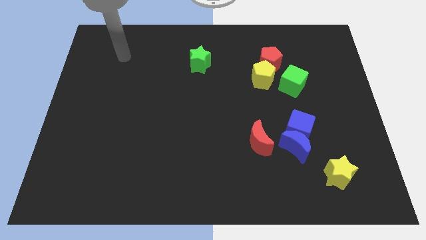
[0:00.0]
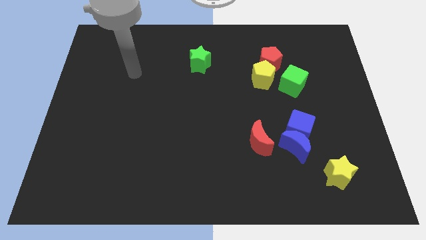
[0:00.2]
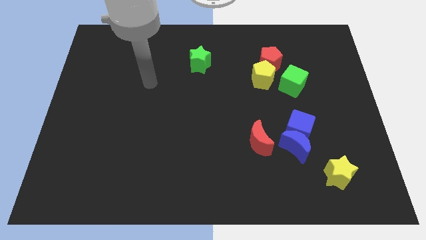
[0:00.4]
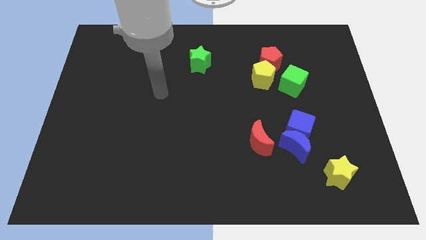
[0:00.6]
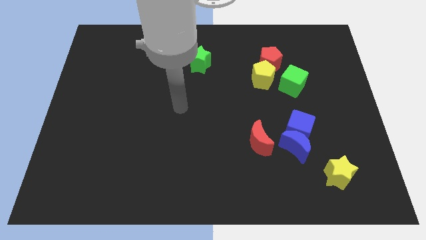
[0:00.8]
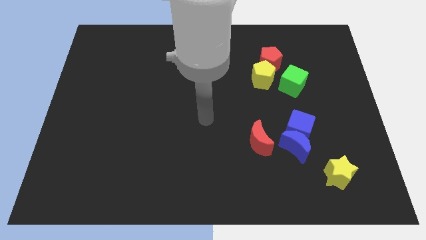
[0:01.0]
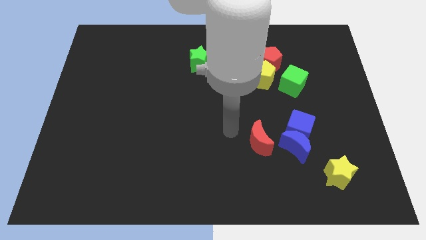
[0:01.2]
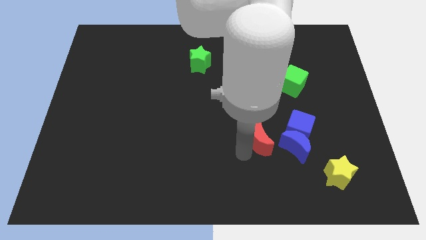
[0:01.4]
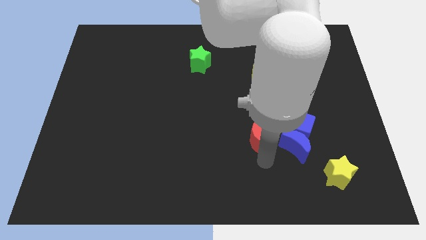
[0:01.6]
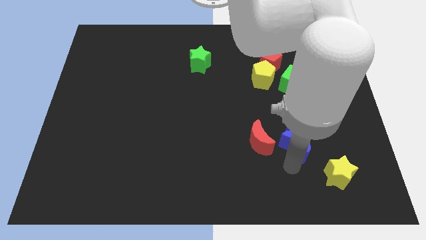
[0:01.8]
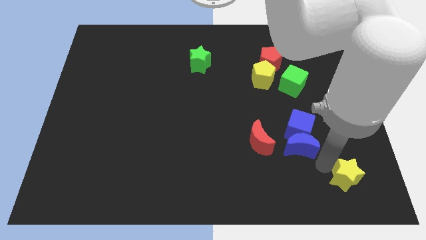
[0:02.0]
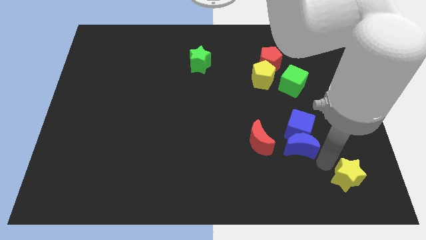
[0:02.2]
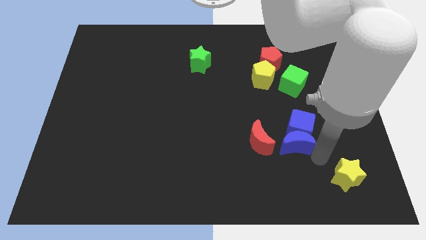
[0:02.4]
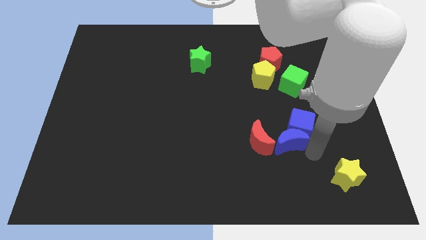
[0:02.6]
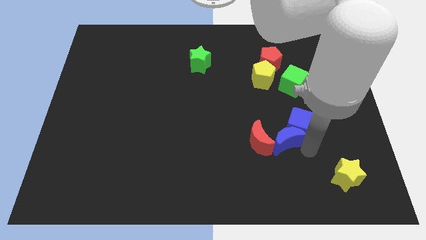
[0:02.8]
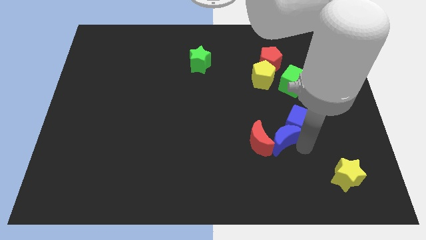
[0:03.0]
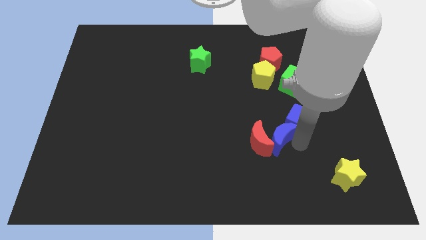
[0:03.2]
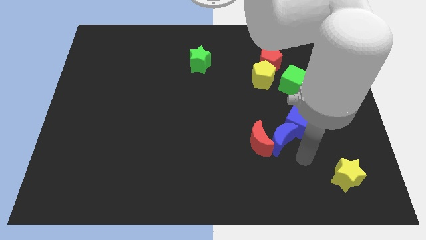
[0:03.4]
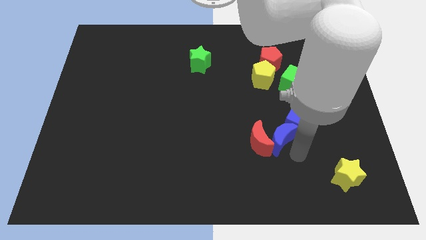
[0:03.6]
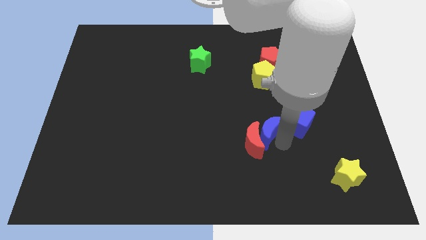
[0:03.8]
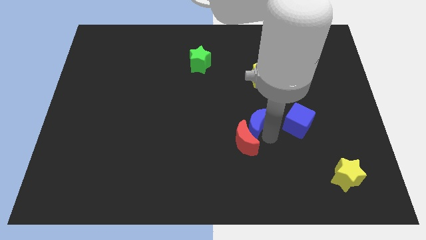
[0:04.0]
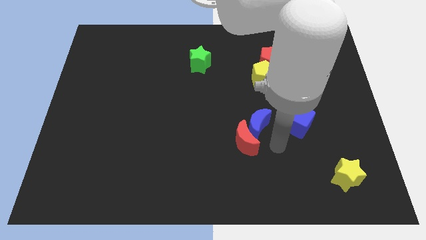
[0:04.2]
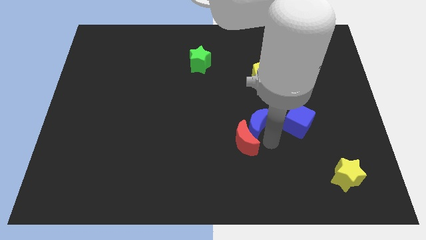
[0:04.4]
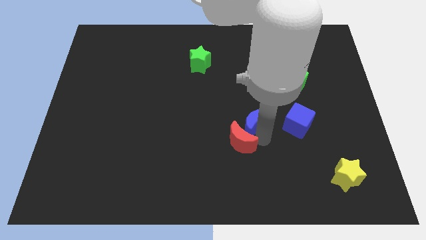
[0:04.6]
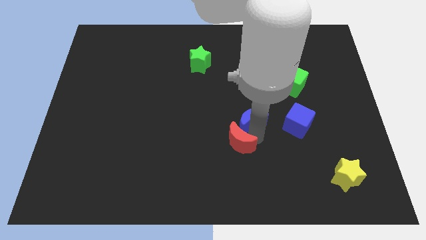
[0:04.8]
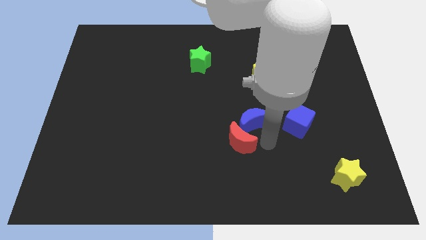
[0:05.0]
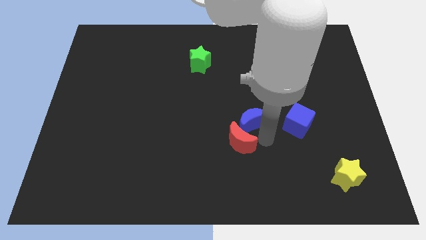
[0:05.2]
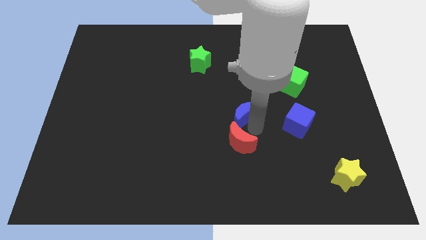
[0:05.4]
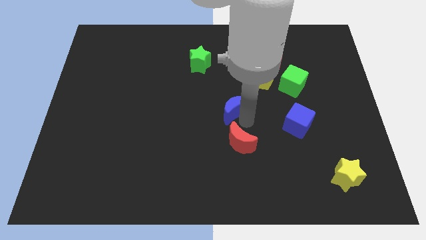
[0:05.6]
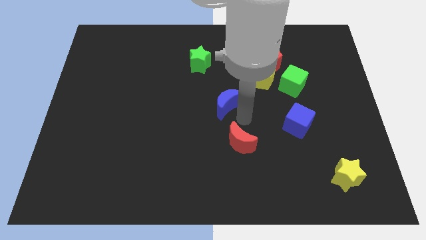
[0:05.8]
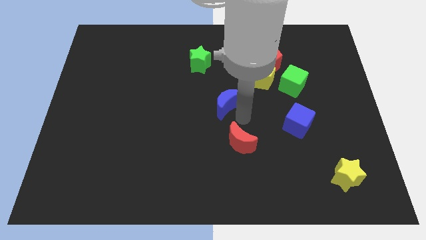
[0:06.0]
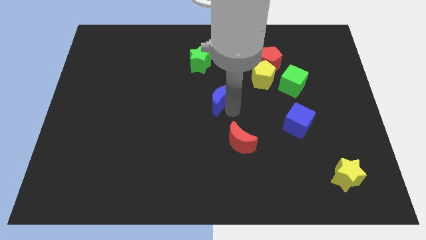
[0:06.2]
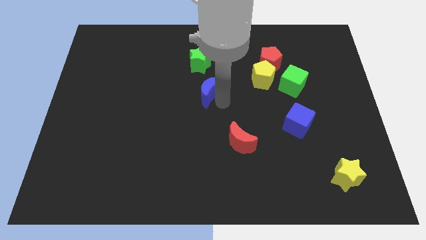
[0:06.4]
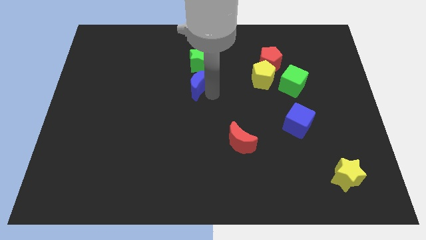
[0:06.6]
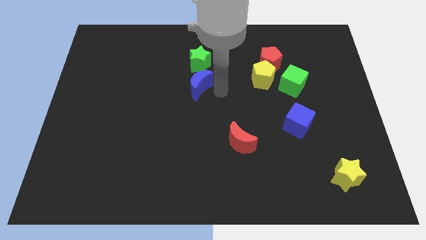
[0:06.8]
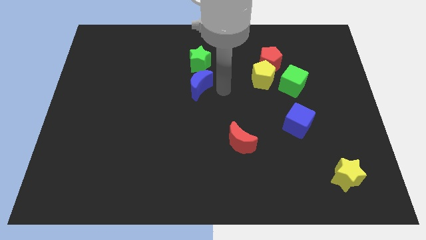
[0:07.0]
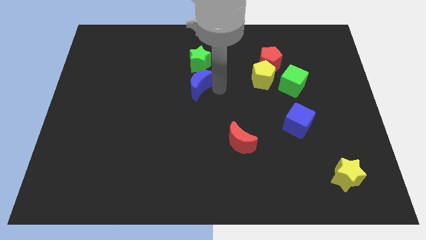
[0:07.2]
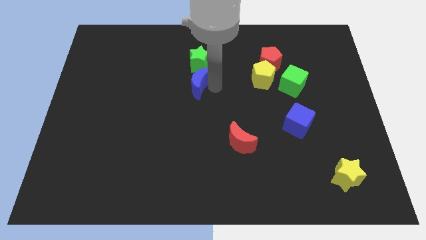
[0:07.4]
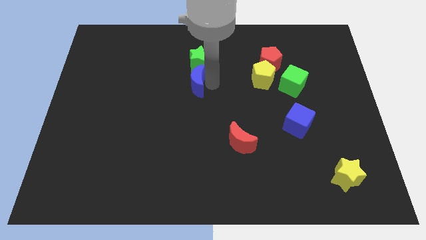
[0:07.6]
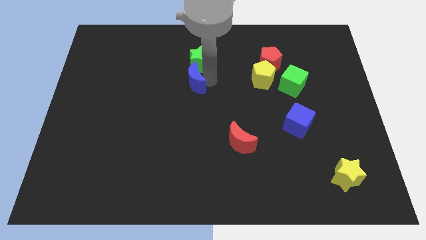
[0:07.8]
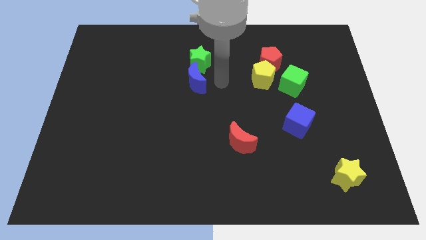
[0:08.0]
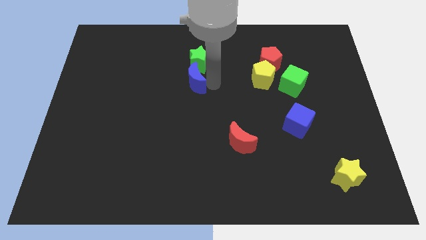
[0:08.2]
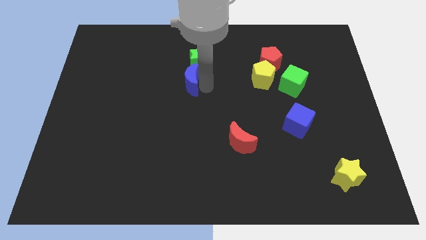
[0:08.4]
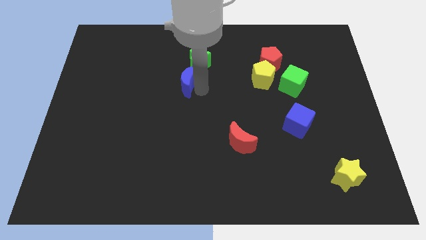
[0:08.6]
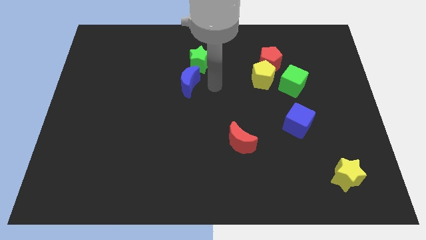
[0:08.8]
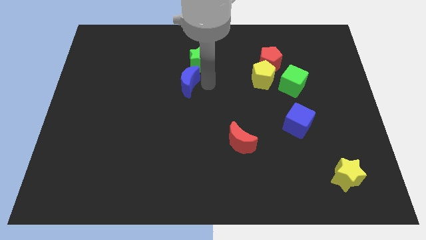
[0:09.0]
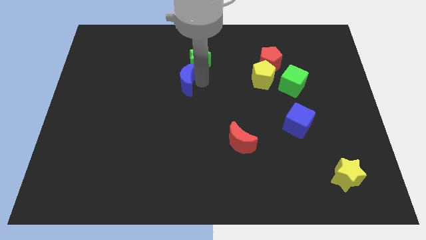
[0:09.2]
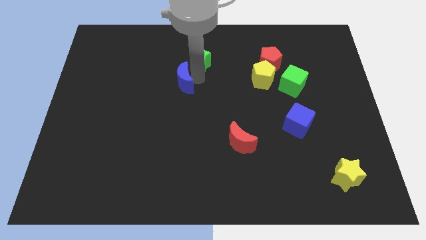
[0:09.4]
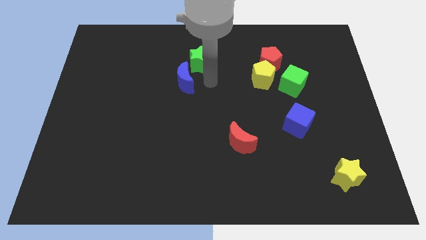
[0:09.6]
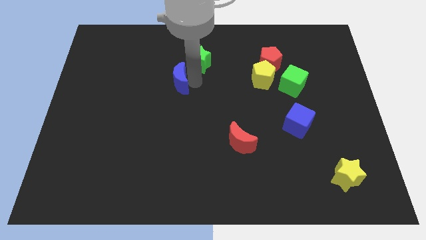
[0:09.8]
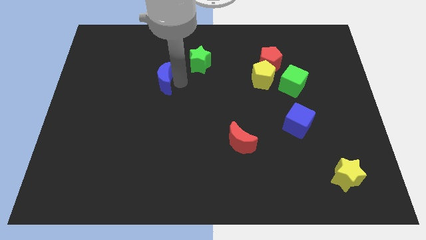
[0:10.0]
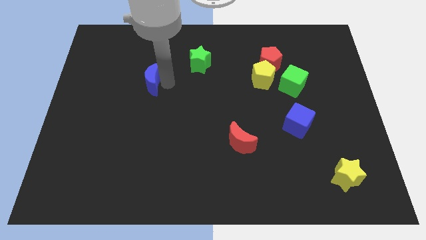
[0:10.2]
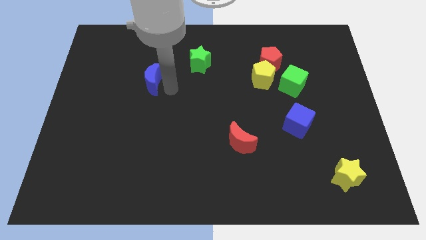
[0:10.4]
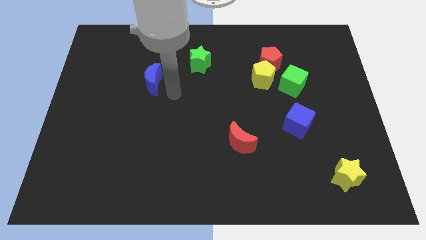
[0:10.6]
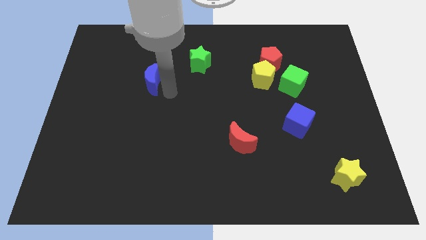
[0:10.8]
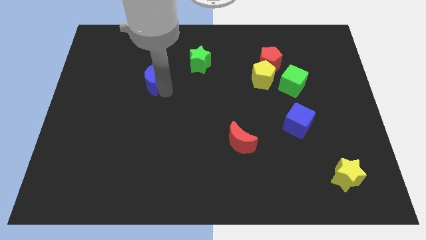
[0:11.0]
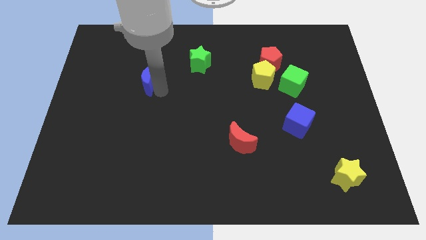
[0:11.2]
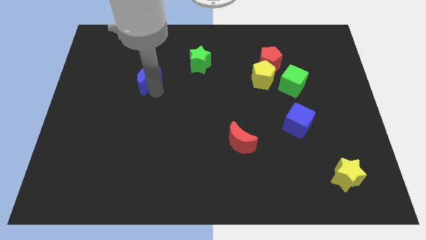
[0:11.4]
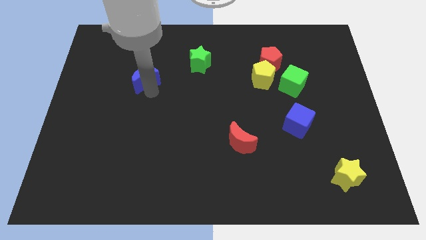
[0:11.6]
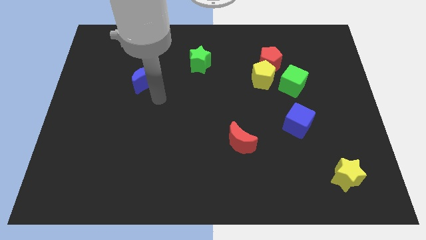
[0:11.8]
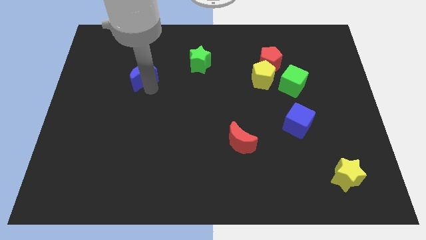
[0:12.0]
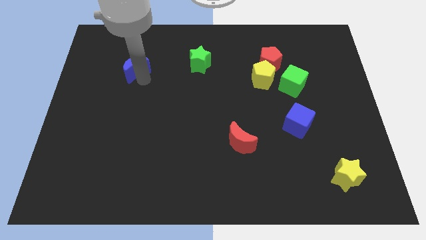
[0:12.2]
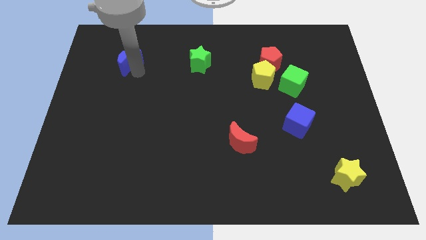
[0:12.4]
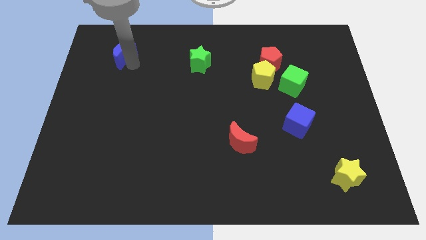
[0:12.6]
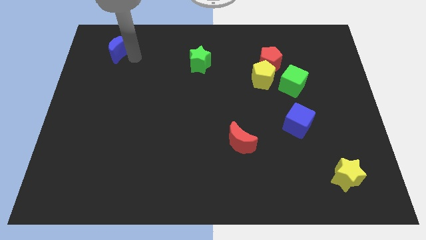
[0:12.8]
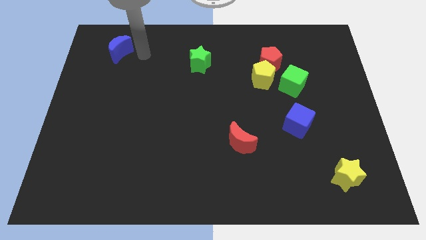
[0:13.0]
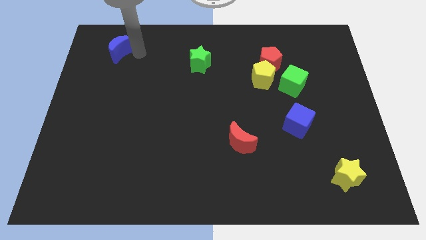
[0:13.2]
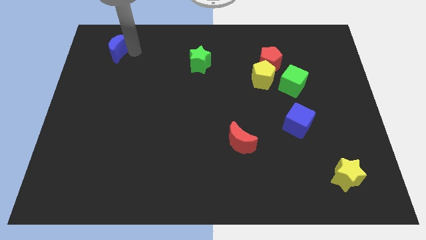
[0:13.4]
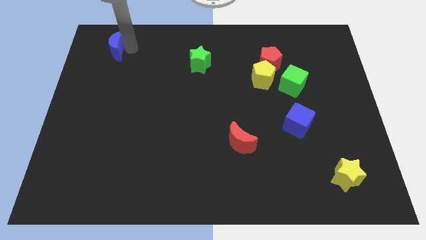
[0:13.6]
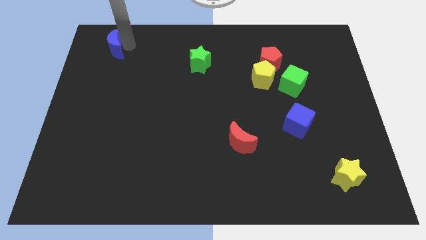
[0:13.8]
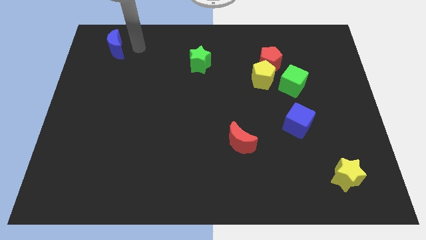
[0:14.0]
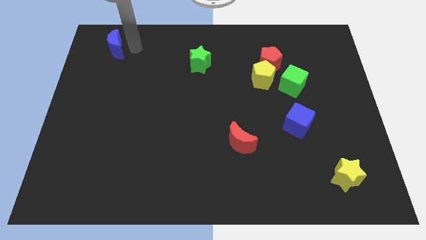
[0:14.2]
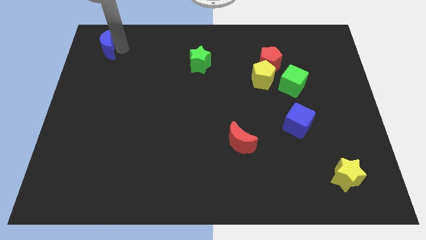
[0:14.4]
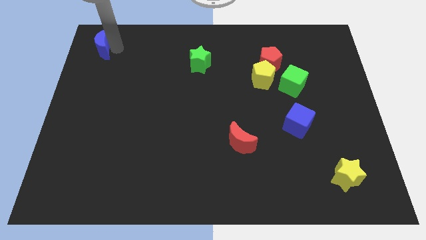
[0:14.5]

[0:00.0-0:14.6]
put the blue moon to the top left
